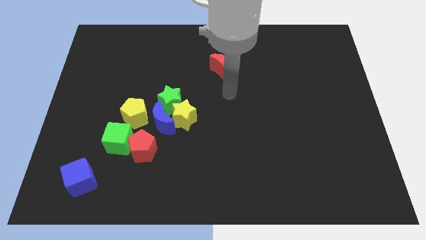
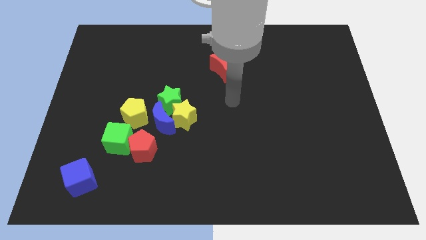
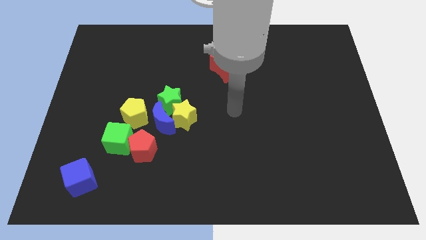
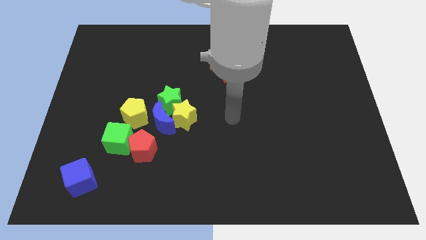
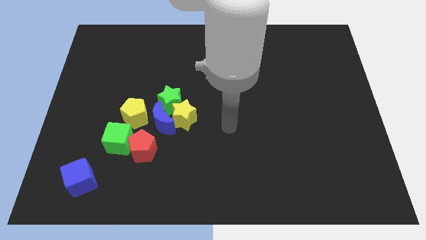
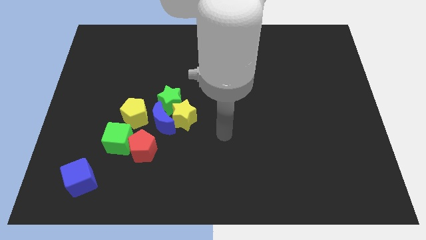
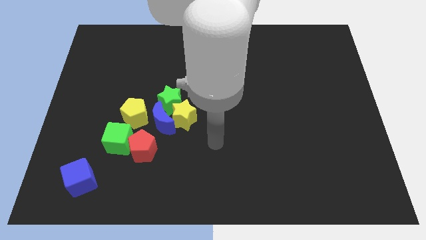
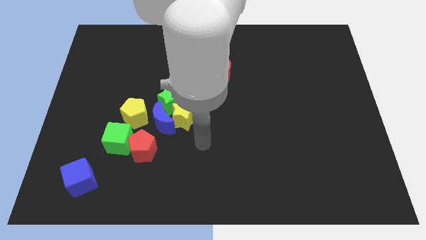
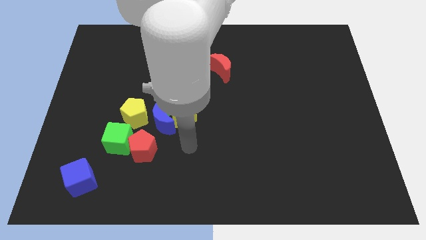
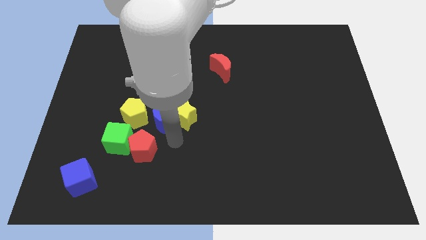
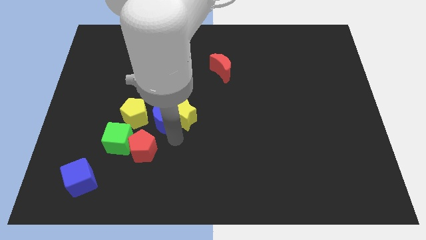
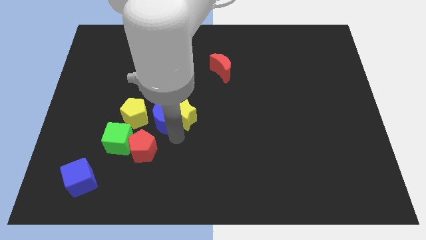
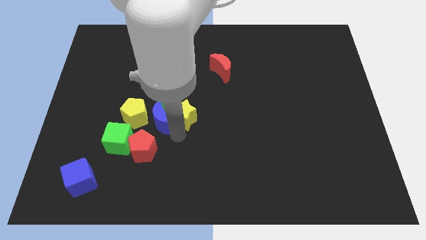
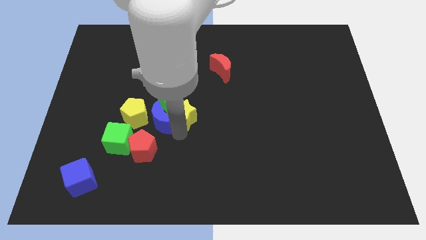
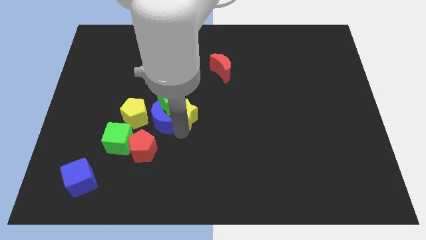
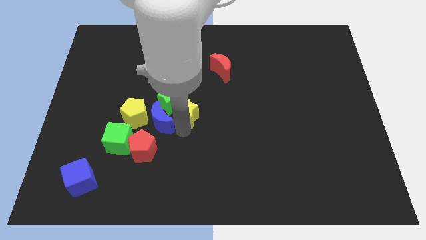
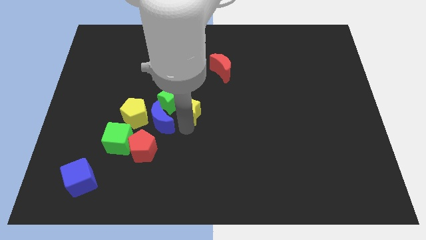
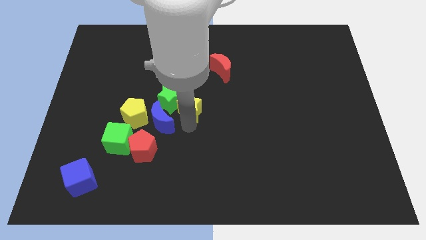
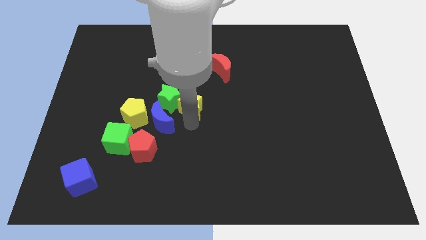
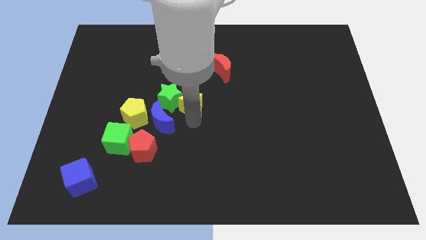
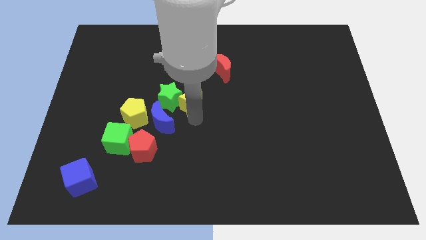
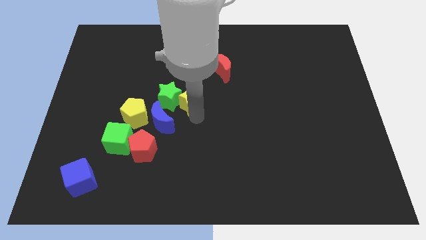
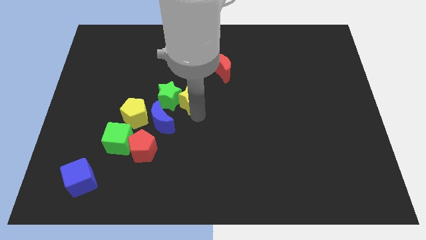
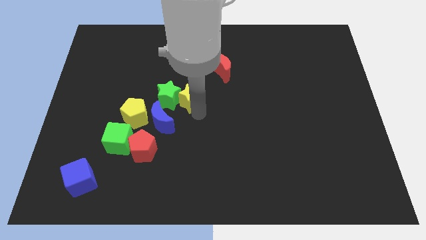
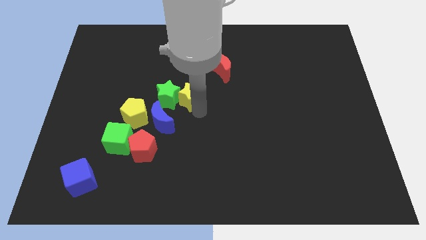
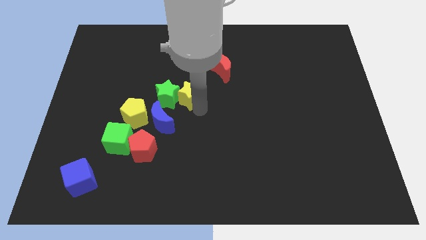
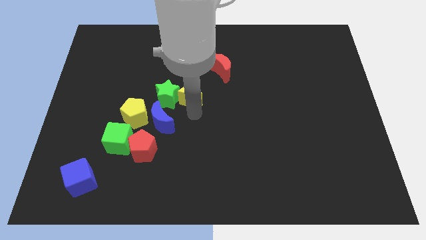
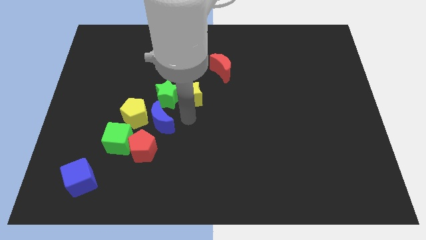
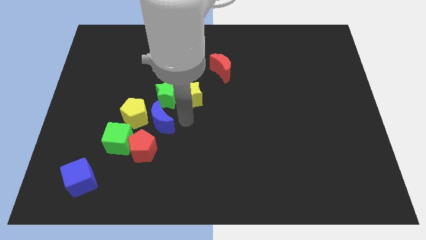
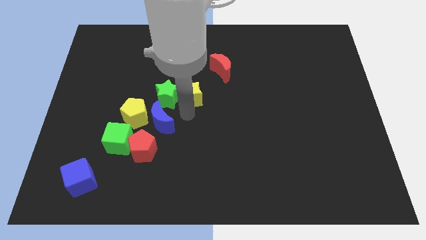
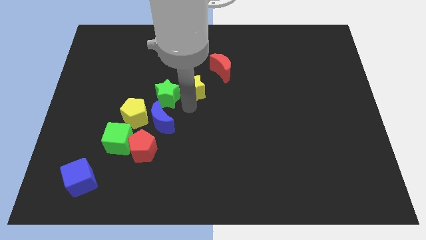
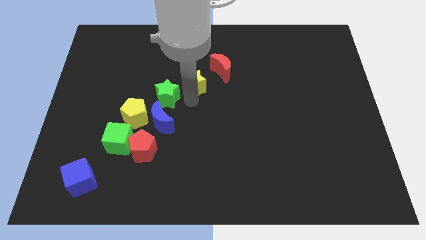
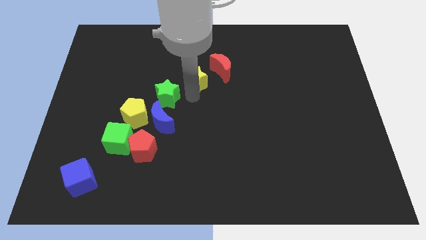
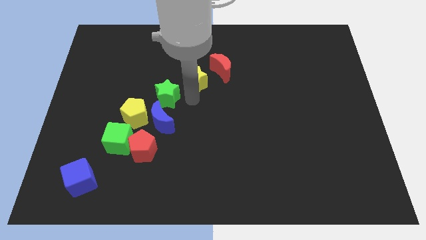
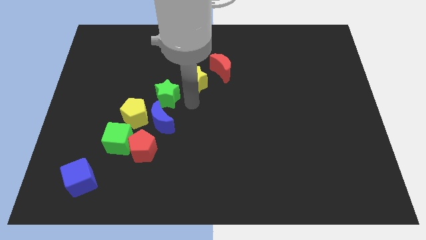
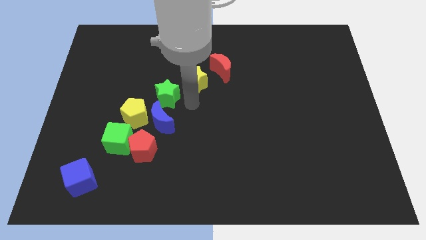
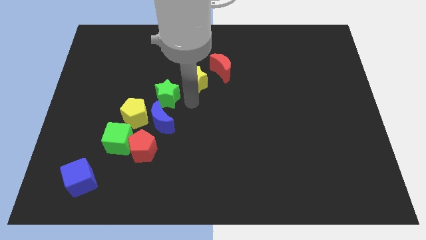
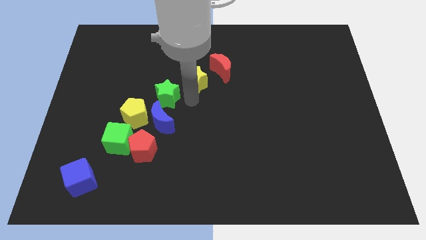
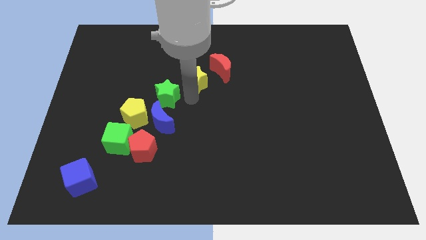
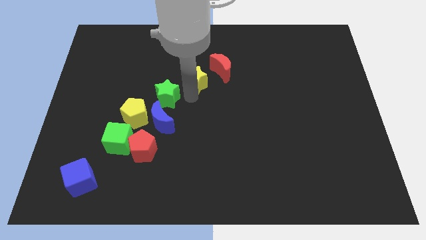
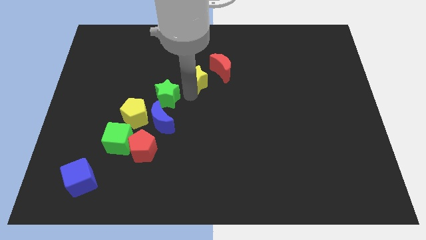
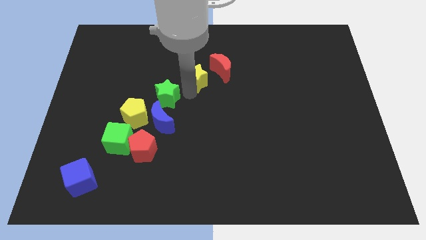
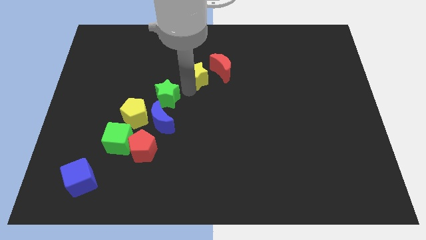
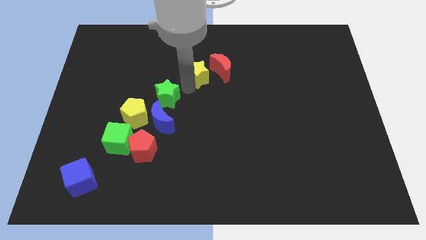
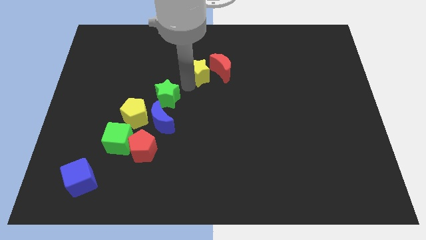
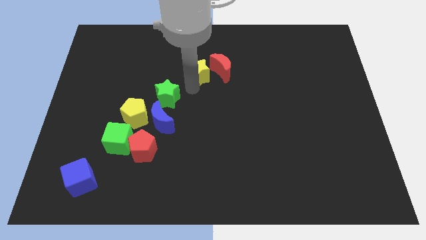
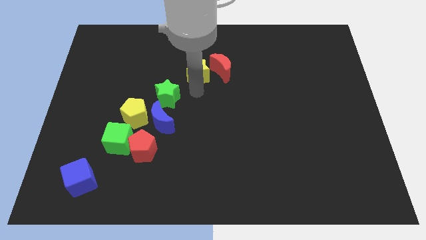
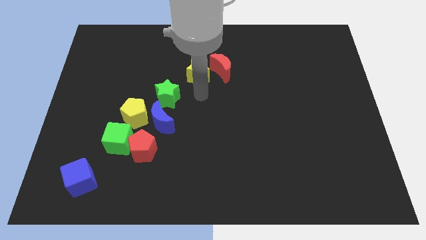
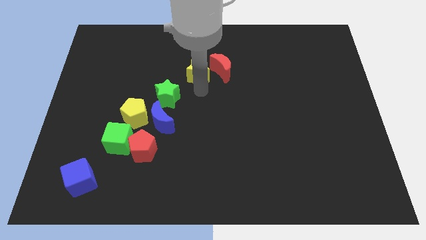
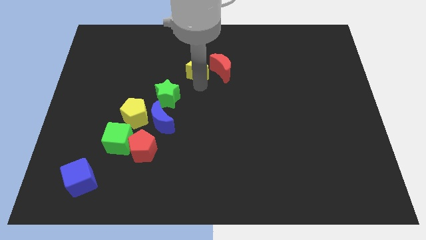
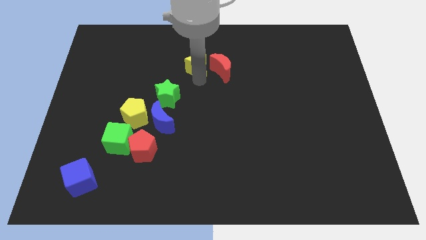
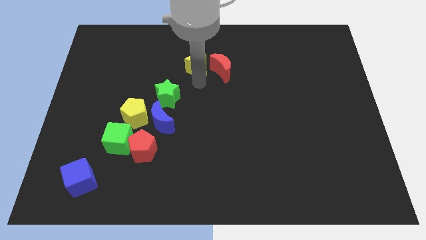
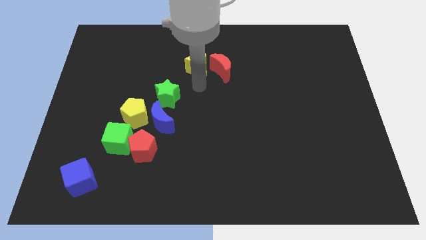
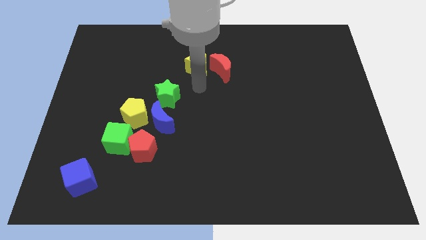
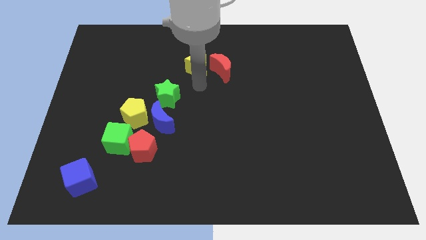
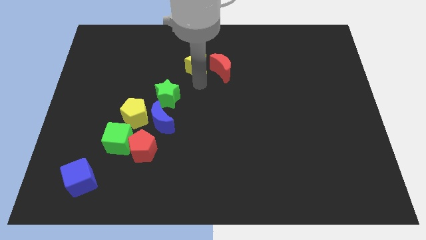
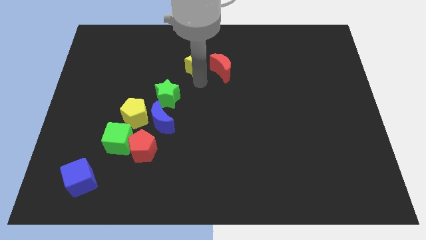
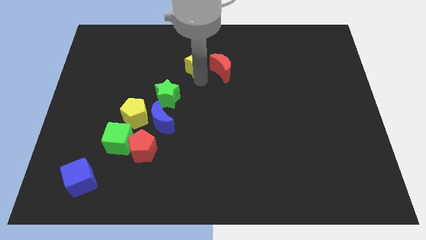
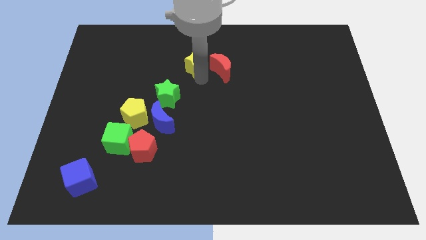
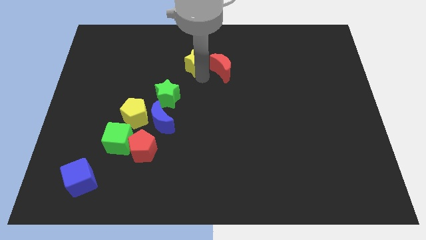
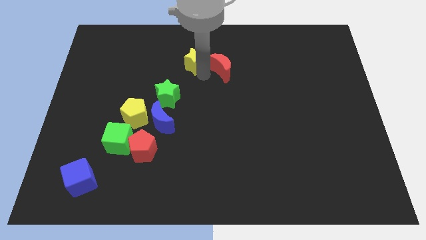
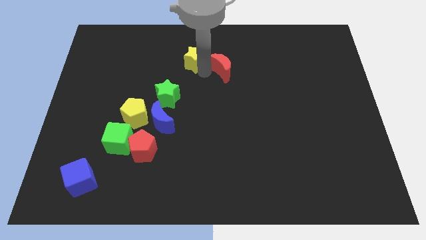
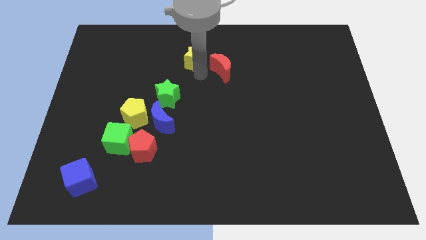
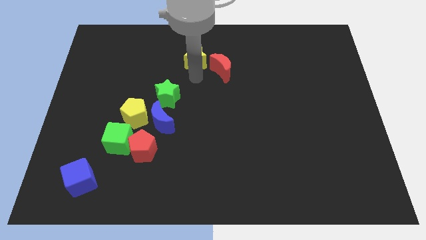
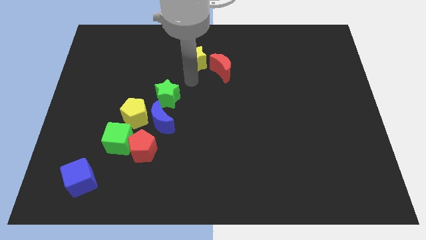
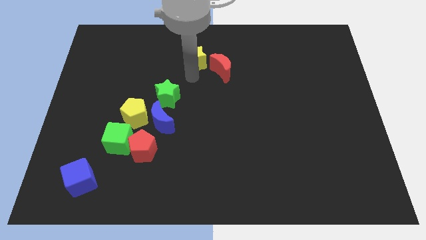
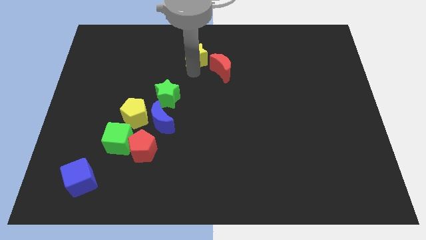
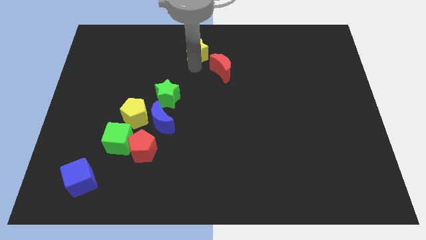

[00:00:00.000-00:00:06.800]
slide the yellow star to the towards your base
